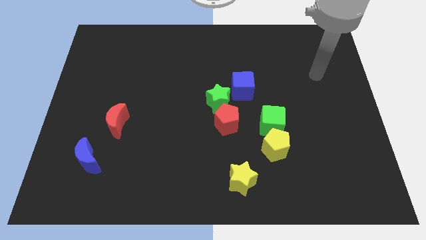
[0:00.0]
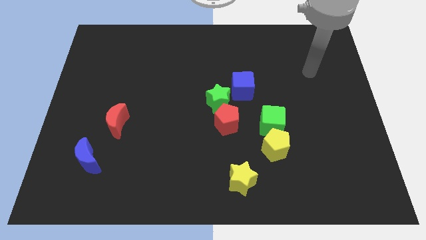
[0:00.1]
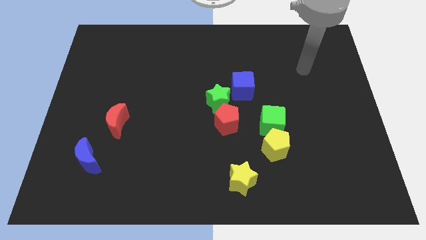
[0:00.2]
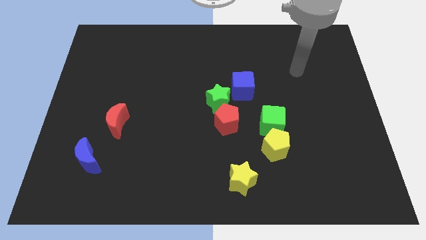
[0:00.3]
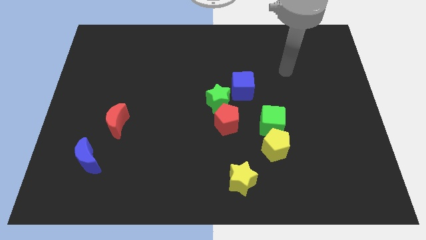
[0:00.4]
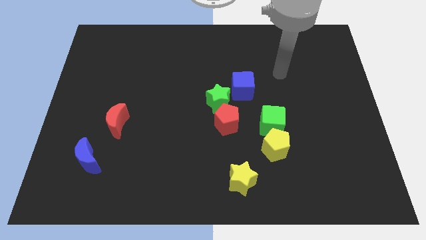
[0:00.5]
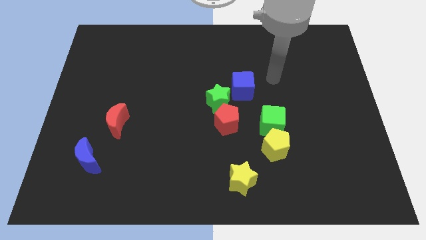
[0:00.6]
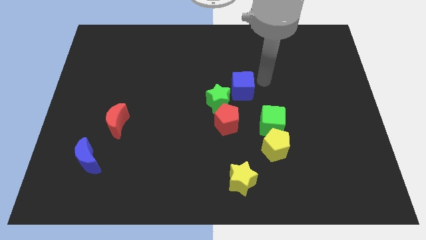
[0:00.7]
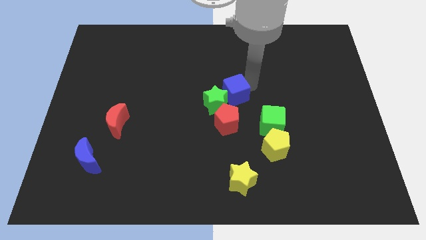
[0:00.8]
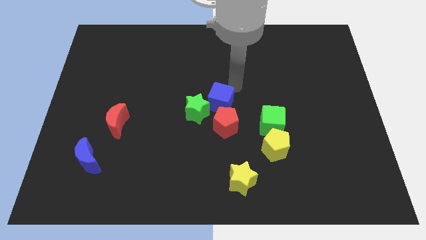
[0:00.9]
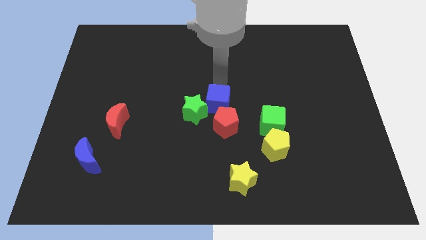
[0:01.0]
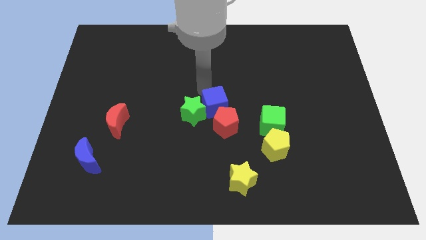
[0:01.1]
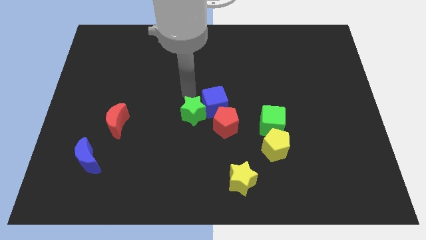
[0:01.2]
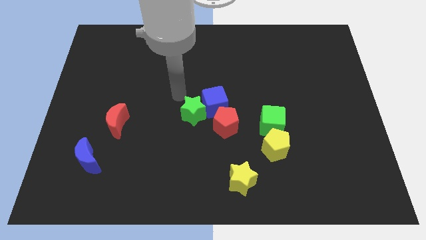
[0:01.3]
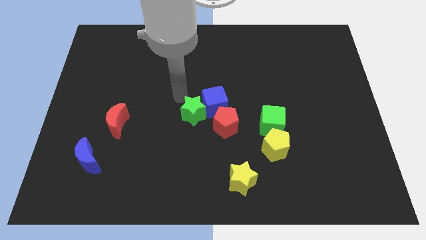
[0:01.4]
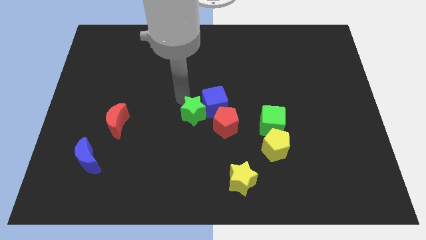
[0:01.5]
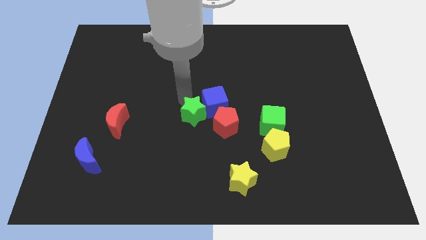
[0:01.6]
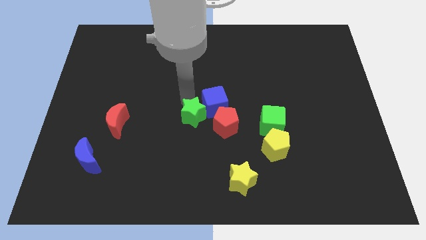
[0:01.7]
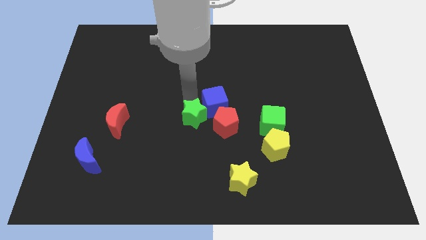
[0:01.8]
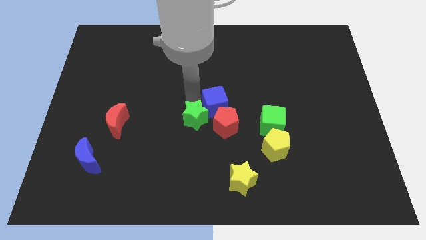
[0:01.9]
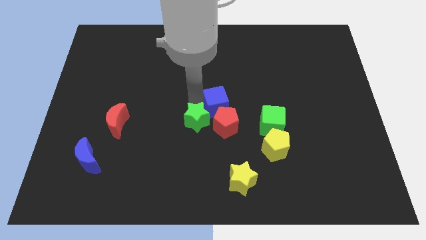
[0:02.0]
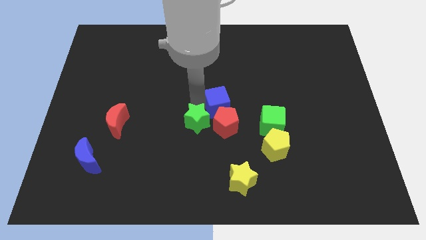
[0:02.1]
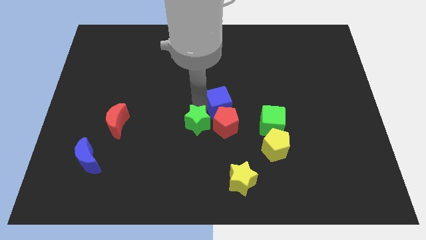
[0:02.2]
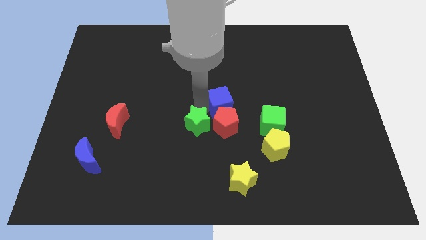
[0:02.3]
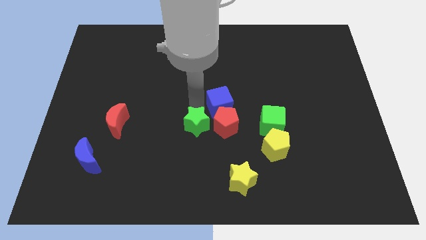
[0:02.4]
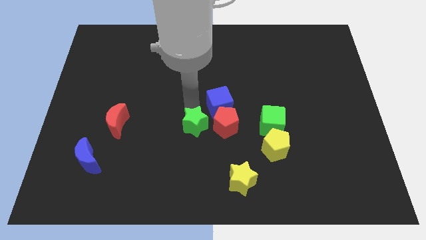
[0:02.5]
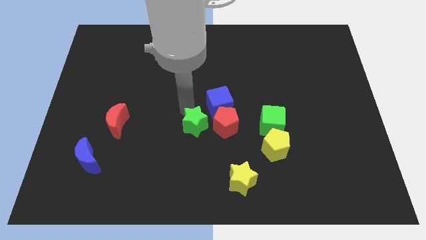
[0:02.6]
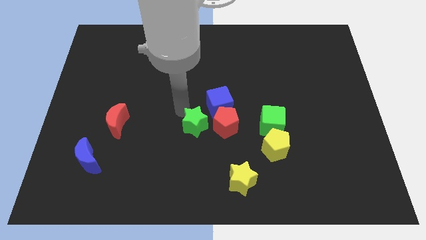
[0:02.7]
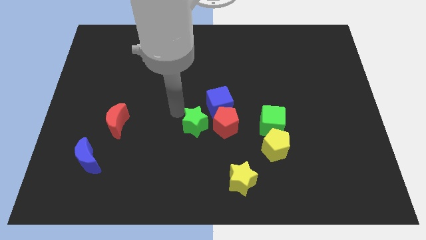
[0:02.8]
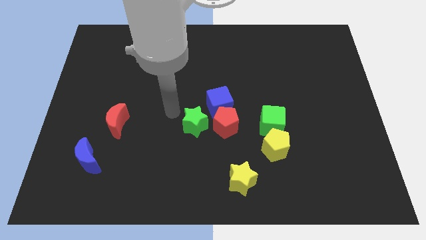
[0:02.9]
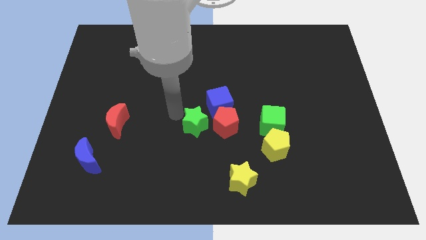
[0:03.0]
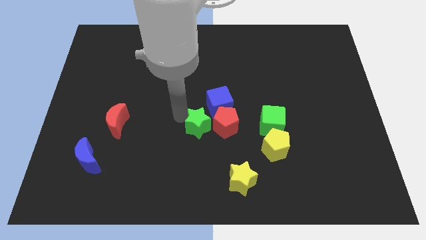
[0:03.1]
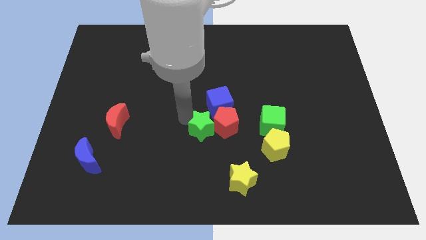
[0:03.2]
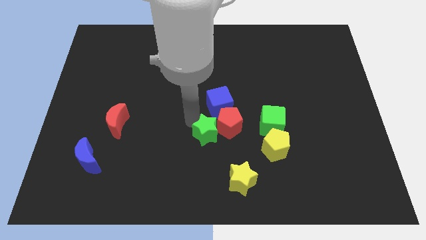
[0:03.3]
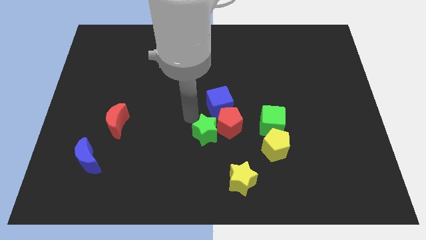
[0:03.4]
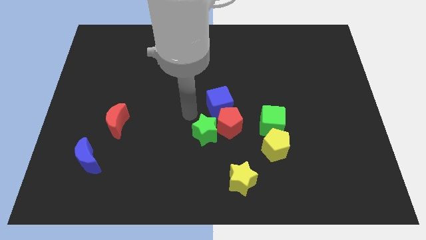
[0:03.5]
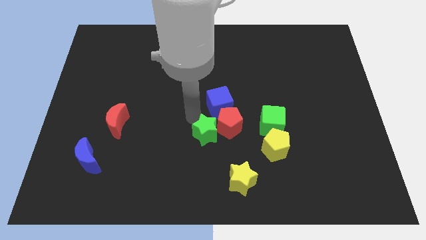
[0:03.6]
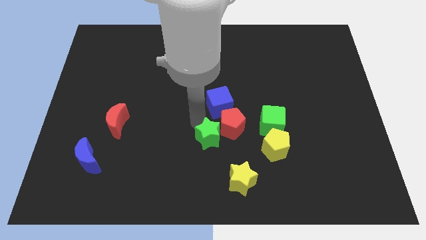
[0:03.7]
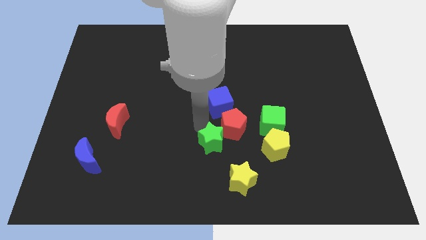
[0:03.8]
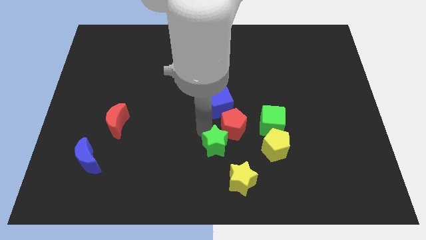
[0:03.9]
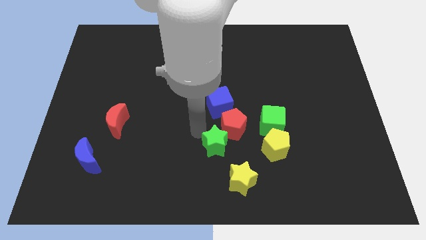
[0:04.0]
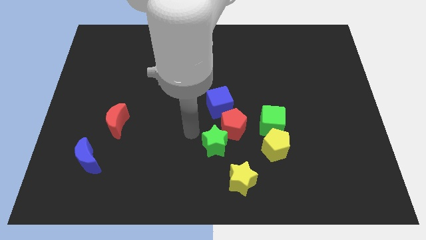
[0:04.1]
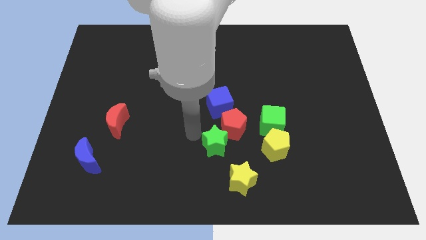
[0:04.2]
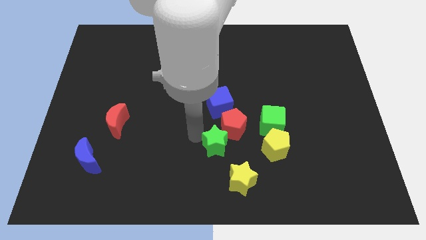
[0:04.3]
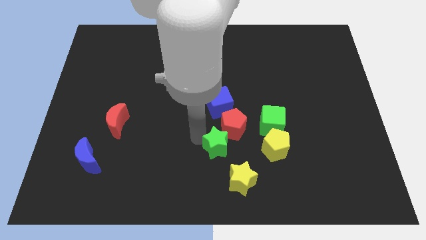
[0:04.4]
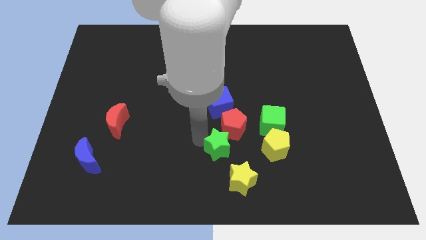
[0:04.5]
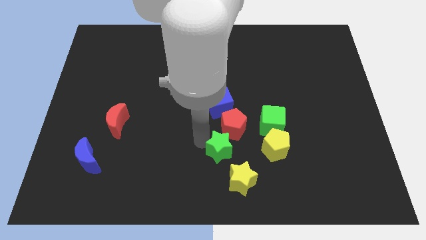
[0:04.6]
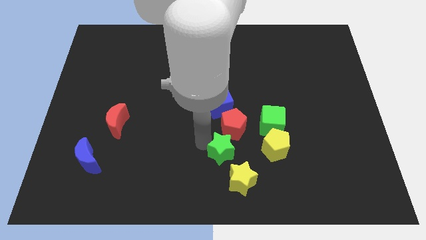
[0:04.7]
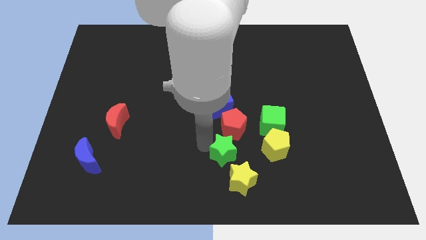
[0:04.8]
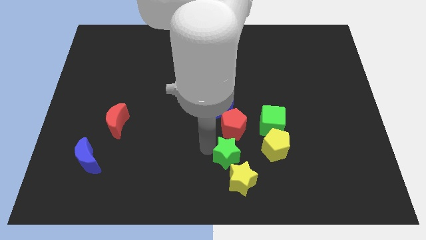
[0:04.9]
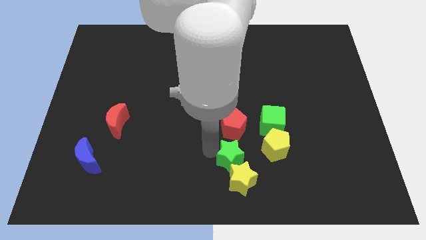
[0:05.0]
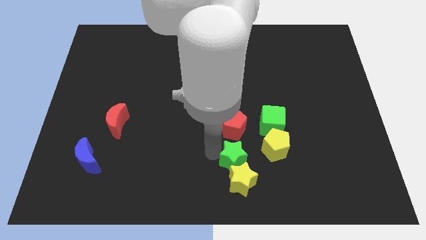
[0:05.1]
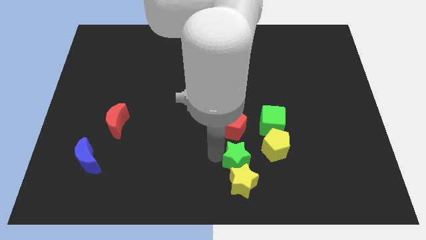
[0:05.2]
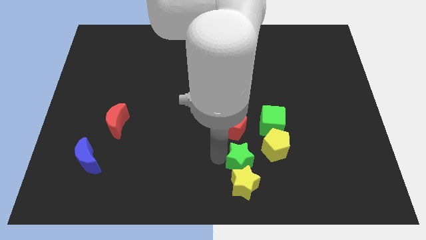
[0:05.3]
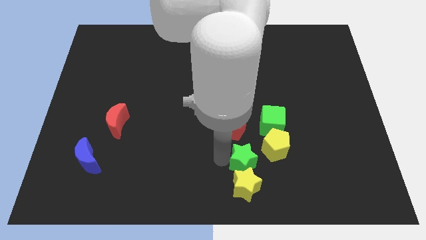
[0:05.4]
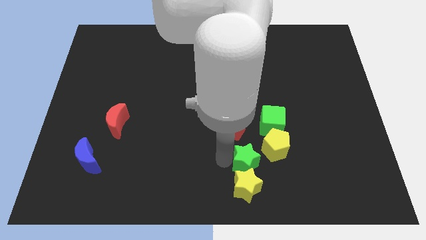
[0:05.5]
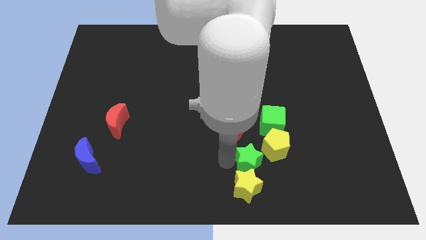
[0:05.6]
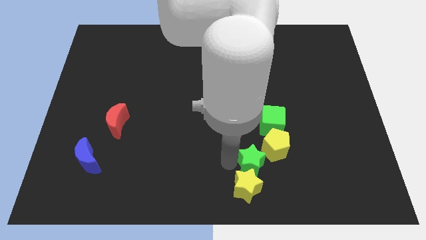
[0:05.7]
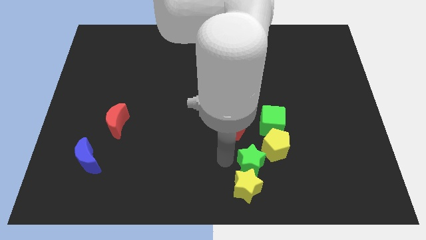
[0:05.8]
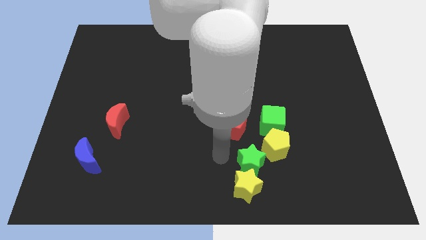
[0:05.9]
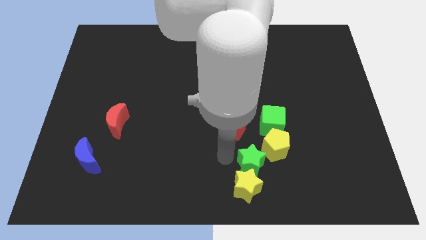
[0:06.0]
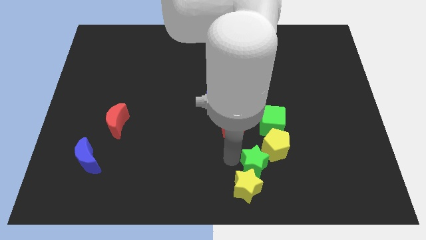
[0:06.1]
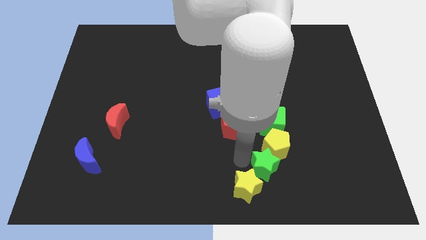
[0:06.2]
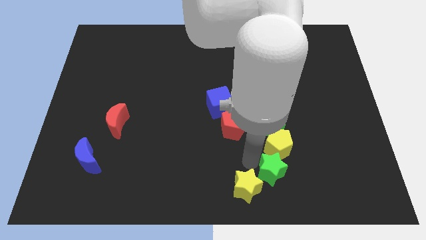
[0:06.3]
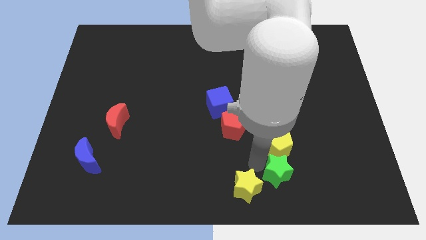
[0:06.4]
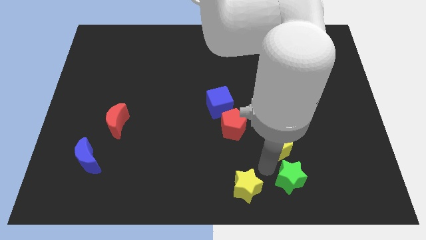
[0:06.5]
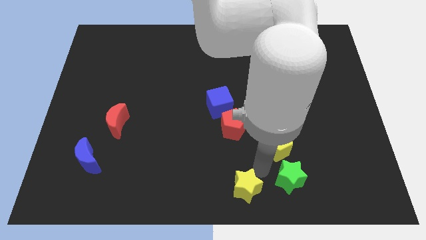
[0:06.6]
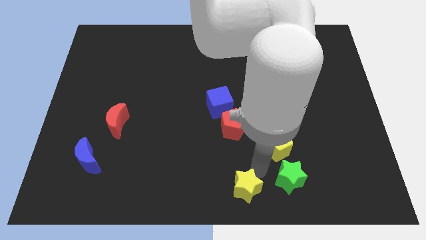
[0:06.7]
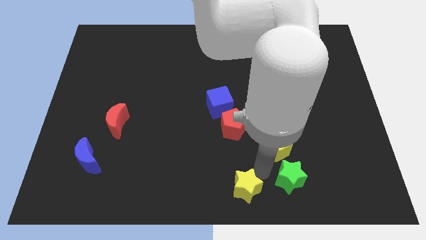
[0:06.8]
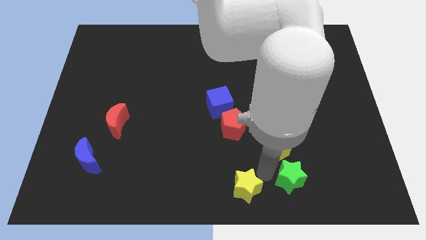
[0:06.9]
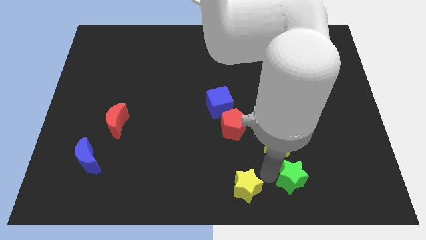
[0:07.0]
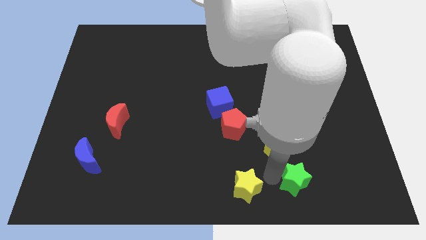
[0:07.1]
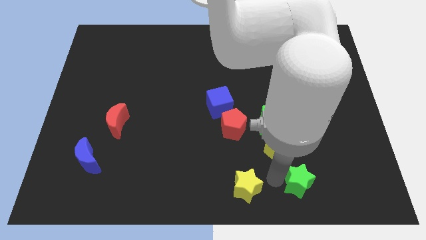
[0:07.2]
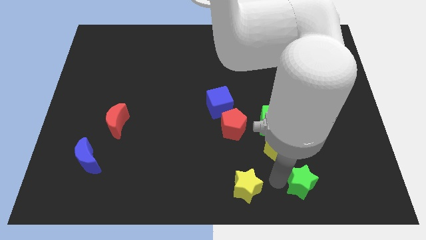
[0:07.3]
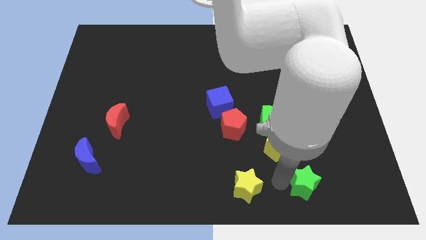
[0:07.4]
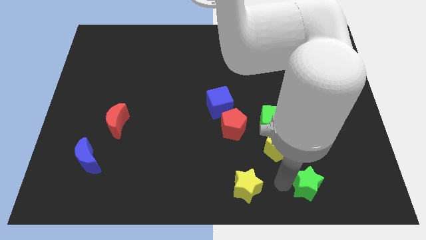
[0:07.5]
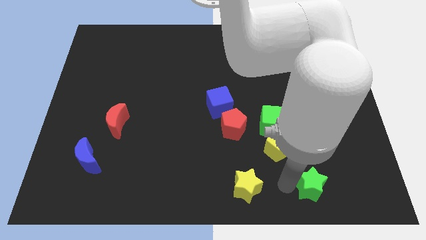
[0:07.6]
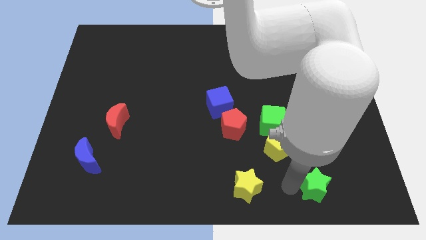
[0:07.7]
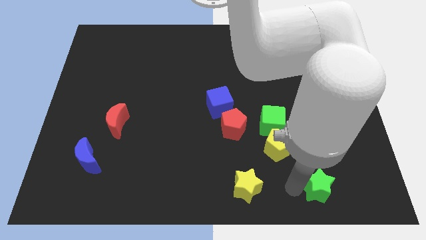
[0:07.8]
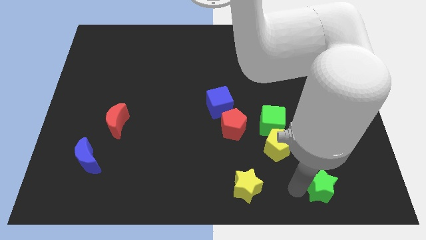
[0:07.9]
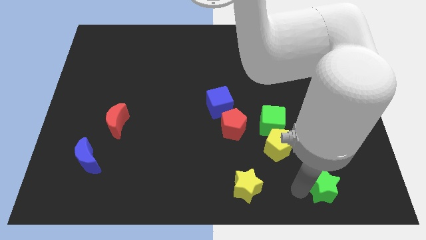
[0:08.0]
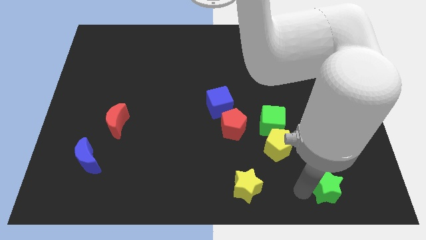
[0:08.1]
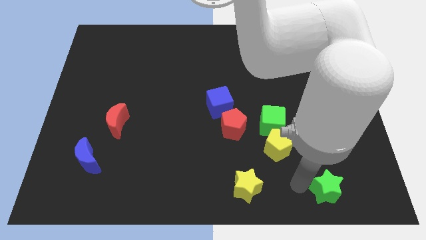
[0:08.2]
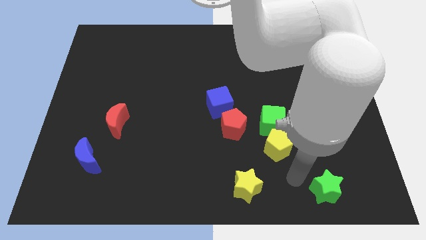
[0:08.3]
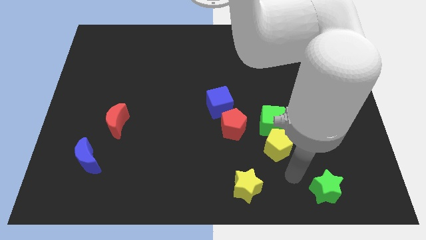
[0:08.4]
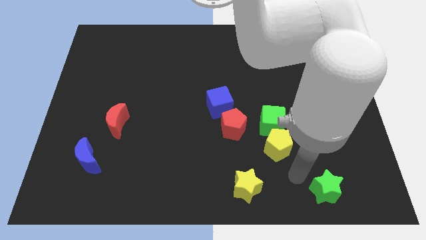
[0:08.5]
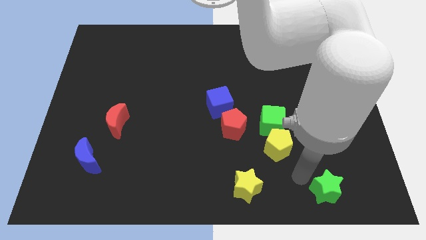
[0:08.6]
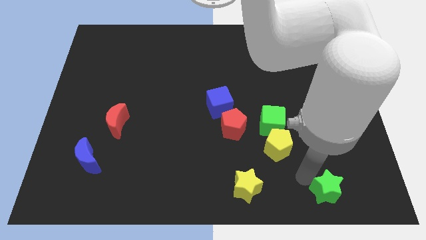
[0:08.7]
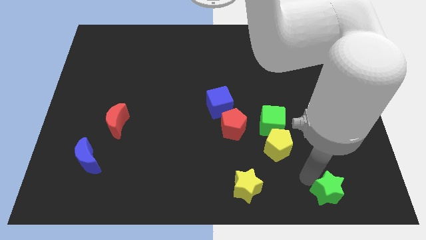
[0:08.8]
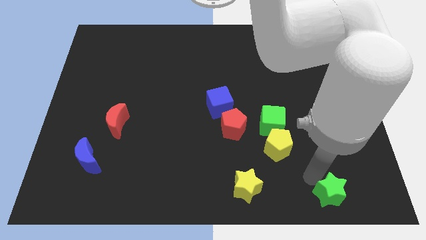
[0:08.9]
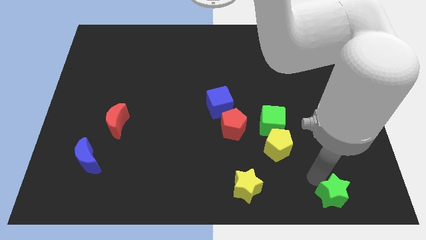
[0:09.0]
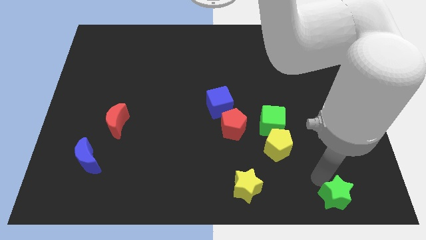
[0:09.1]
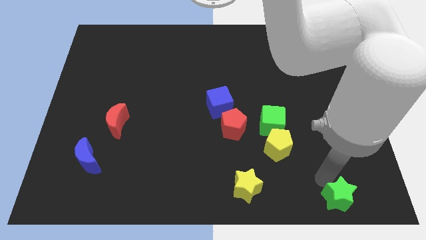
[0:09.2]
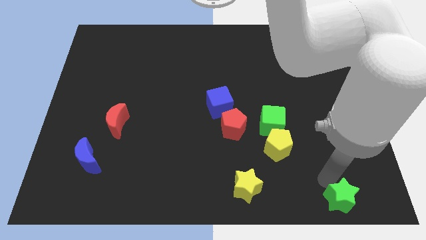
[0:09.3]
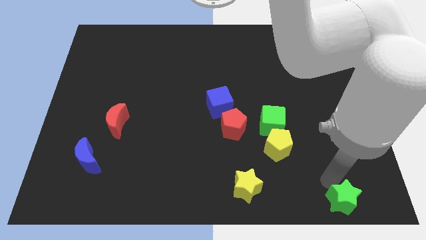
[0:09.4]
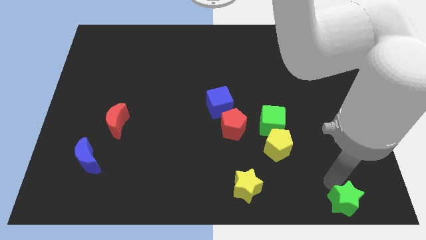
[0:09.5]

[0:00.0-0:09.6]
put the green star to the bottom right corner
